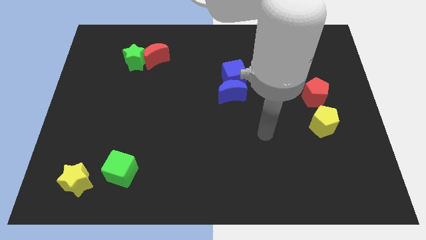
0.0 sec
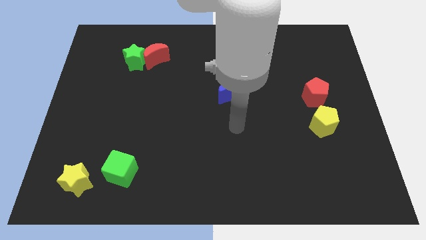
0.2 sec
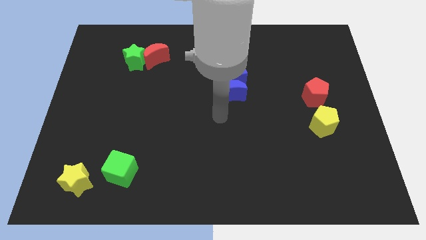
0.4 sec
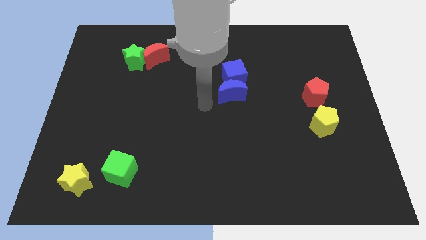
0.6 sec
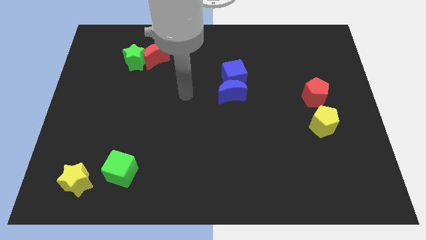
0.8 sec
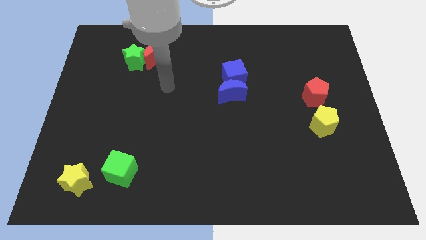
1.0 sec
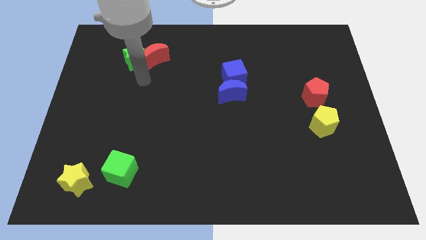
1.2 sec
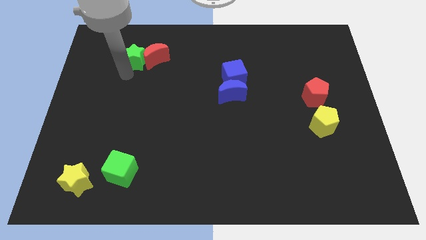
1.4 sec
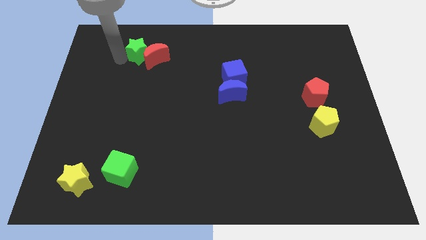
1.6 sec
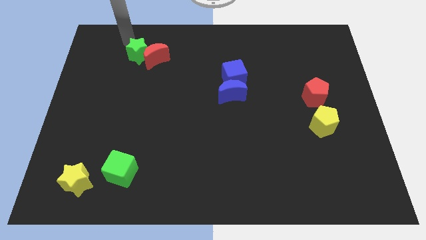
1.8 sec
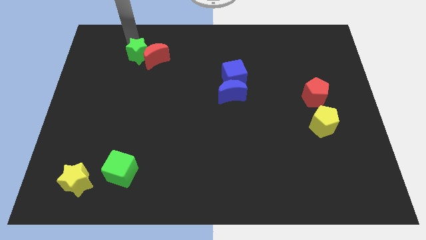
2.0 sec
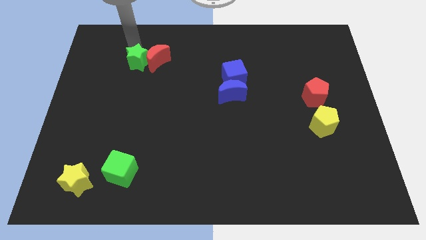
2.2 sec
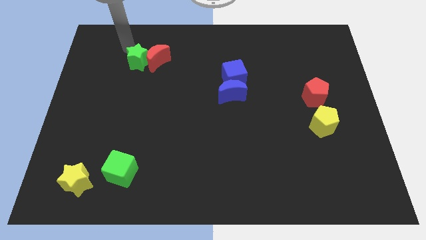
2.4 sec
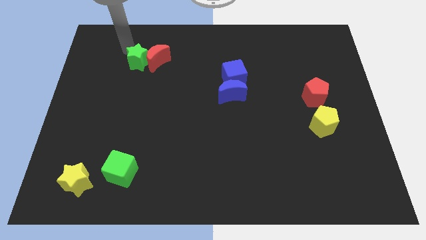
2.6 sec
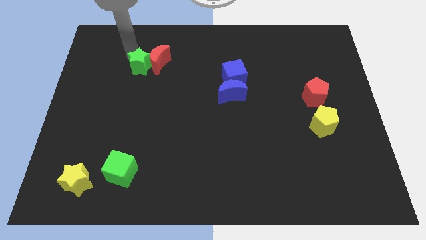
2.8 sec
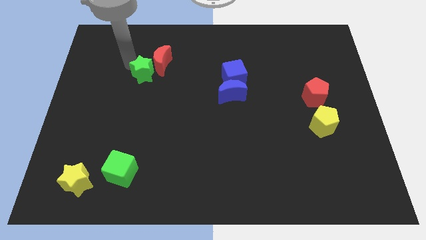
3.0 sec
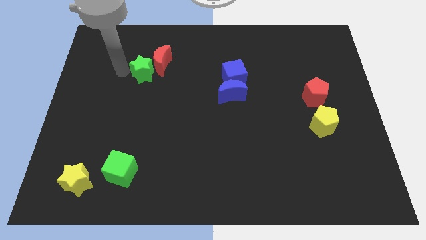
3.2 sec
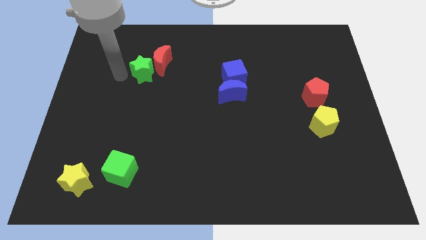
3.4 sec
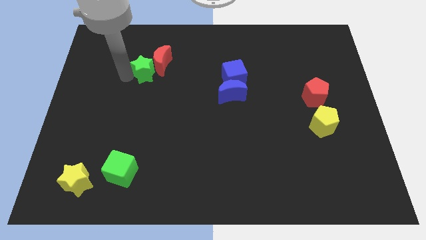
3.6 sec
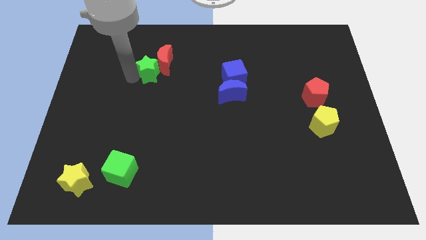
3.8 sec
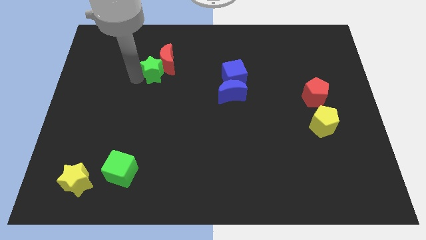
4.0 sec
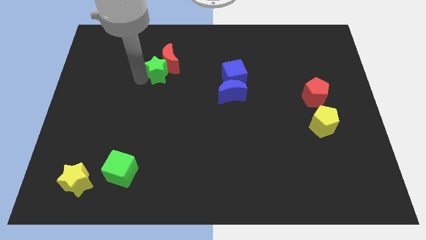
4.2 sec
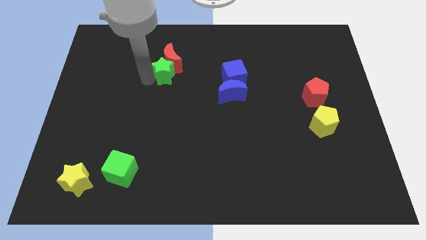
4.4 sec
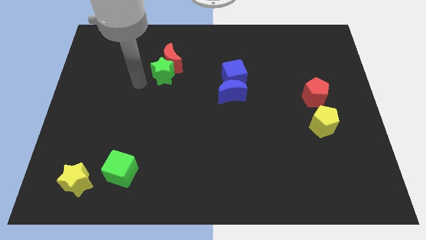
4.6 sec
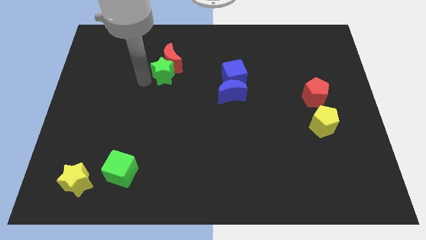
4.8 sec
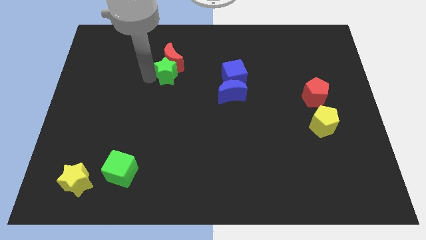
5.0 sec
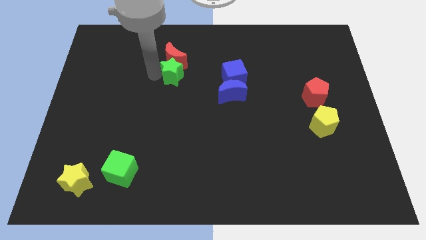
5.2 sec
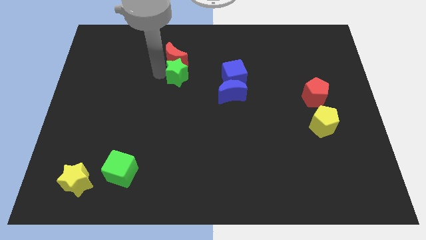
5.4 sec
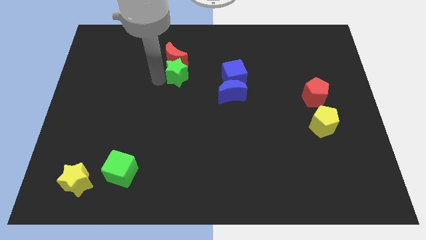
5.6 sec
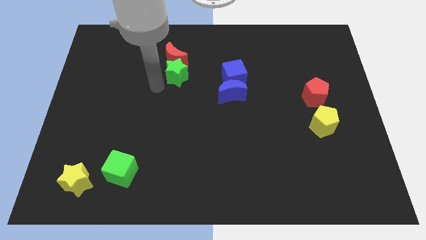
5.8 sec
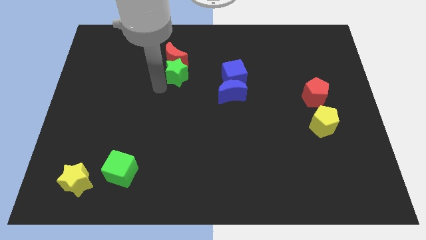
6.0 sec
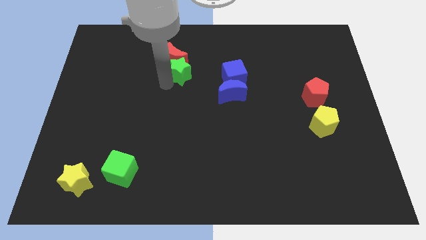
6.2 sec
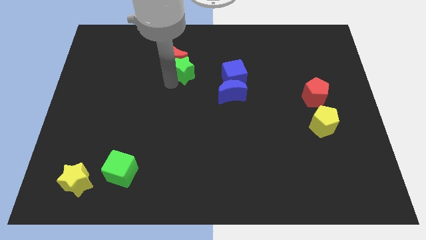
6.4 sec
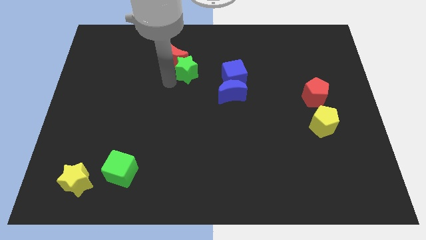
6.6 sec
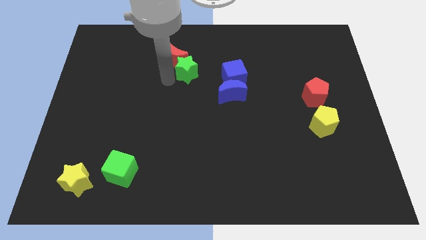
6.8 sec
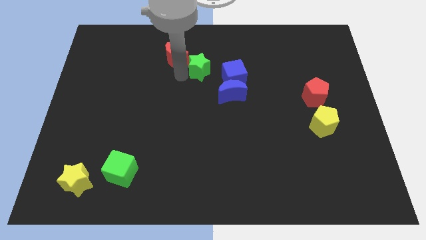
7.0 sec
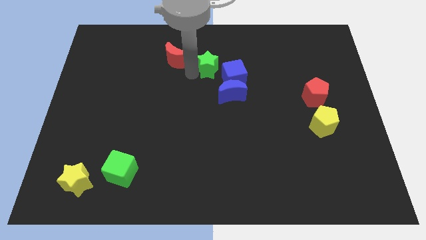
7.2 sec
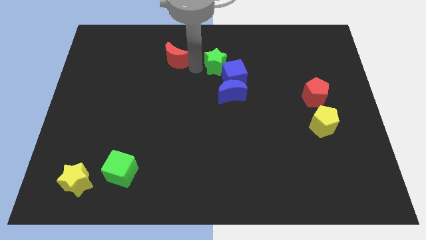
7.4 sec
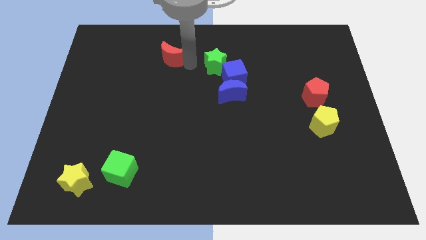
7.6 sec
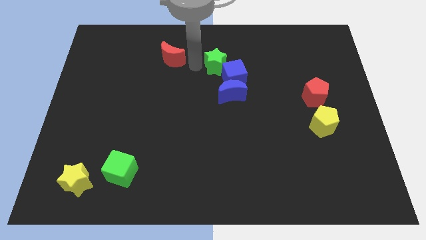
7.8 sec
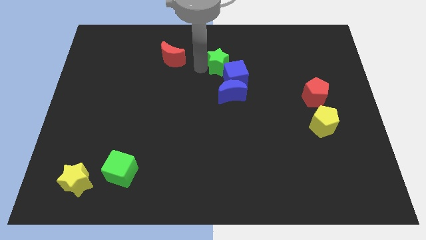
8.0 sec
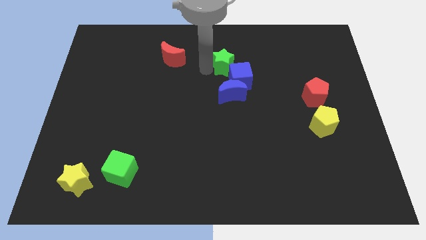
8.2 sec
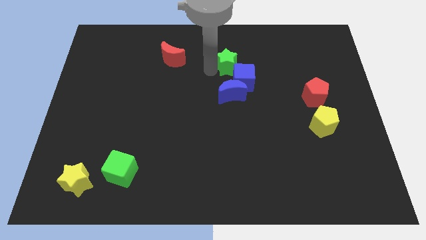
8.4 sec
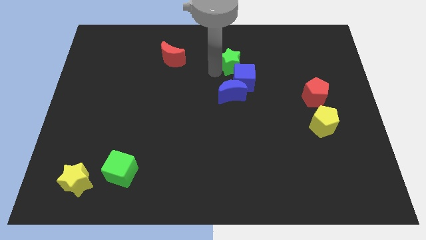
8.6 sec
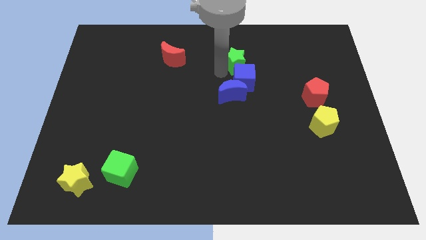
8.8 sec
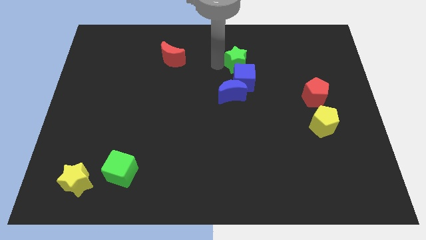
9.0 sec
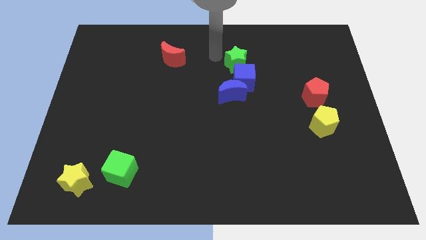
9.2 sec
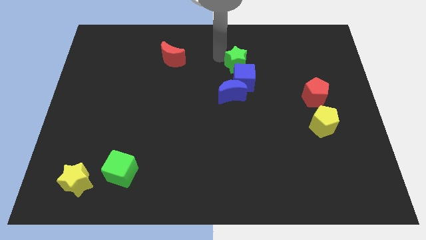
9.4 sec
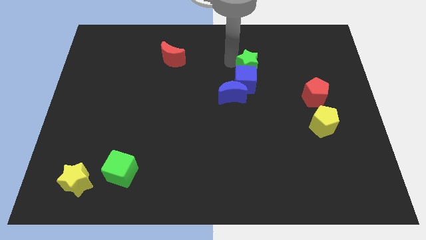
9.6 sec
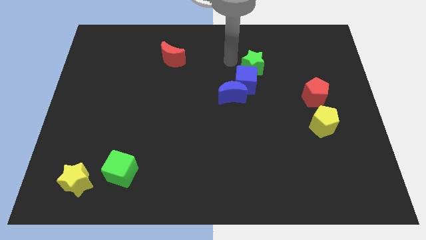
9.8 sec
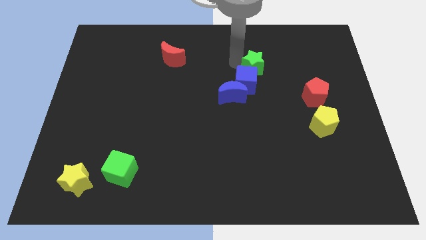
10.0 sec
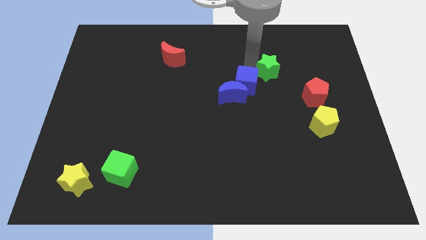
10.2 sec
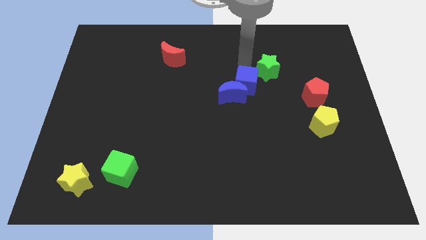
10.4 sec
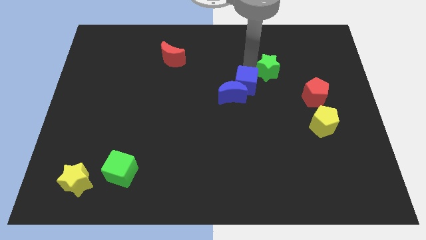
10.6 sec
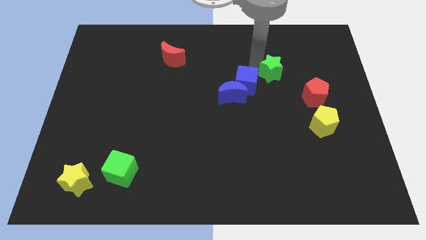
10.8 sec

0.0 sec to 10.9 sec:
put the green star diagonally up and to the left of the red pentagon
